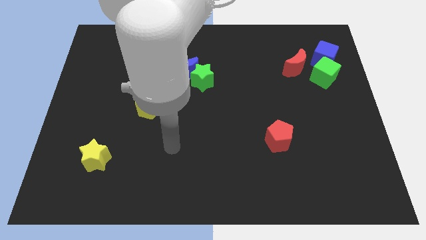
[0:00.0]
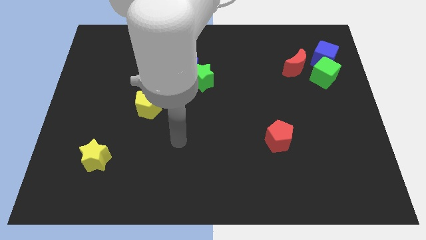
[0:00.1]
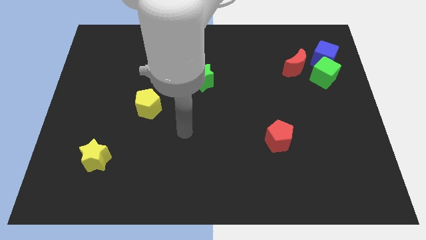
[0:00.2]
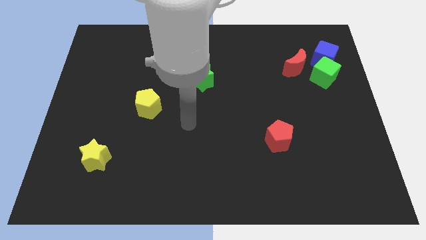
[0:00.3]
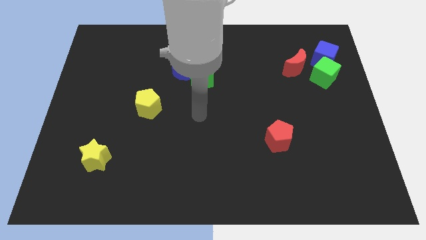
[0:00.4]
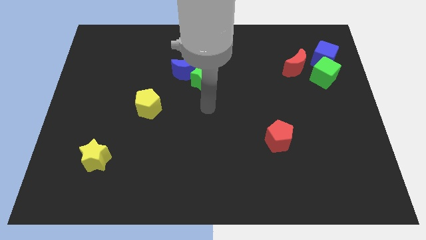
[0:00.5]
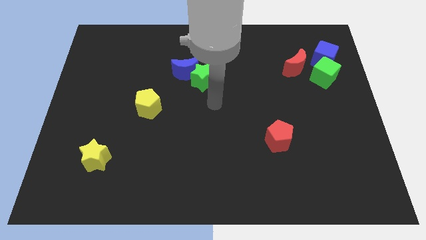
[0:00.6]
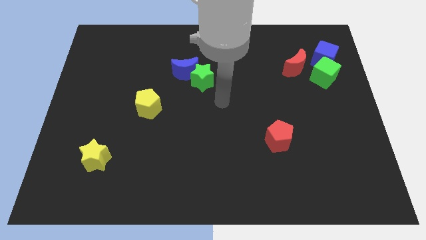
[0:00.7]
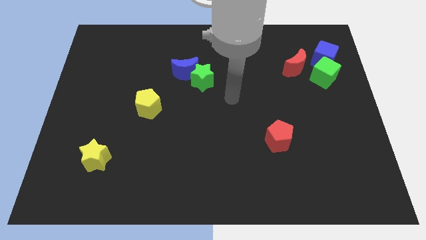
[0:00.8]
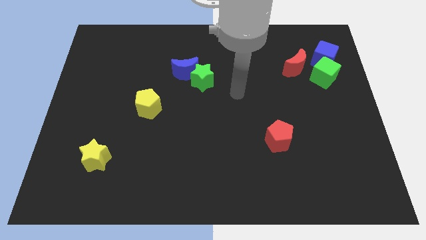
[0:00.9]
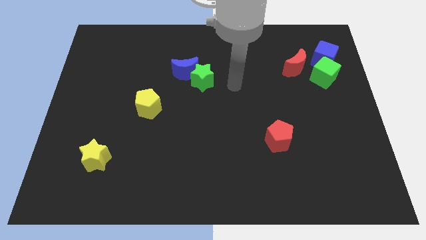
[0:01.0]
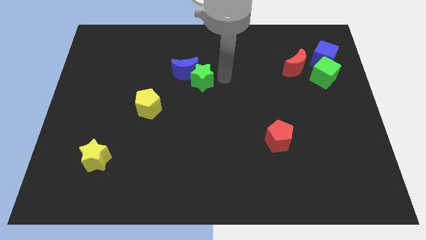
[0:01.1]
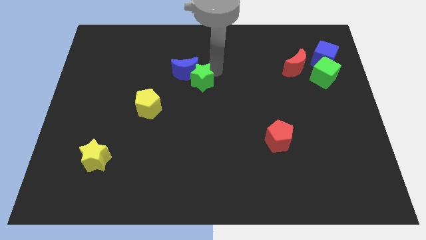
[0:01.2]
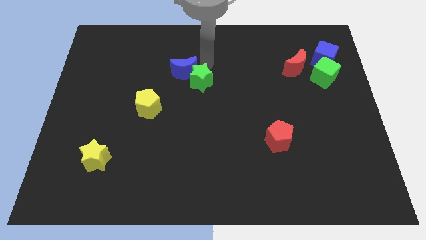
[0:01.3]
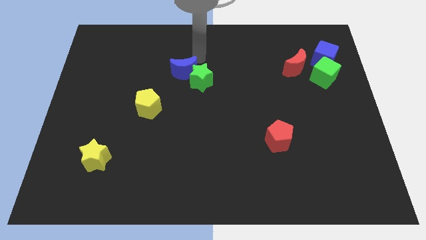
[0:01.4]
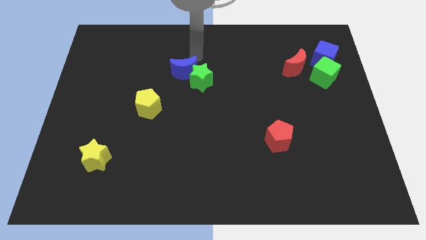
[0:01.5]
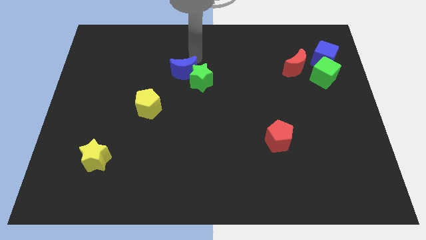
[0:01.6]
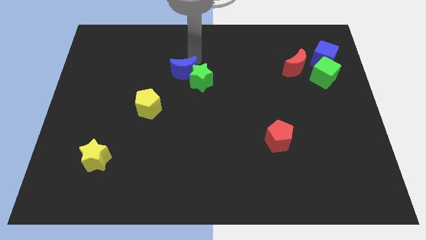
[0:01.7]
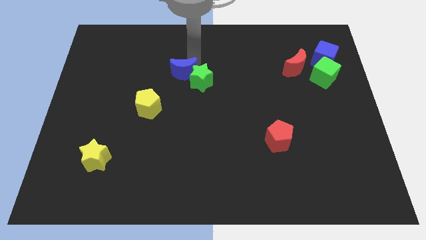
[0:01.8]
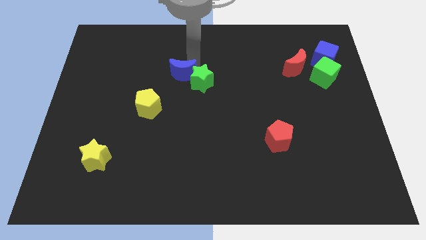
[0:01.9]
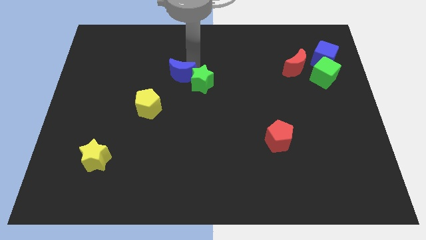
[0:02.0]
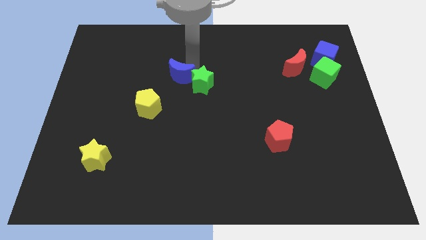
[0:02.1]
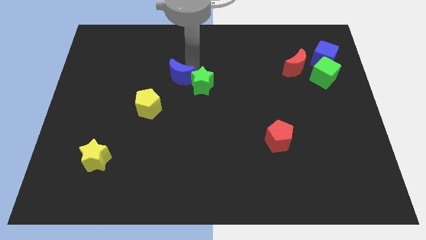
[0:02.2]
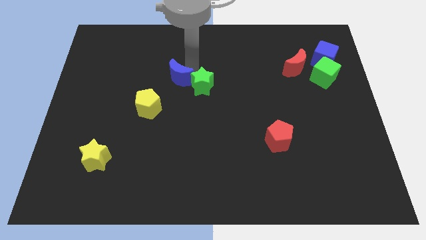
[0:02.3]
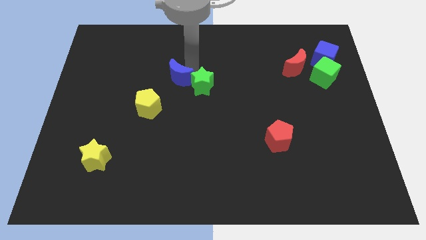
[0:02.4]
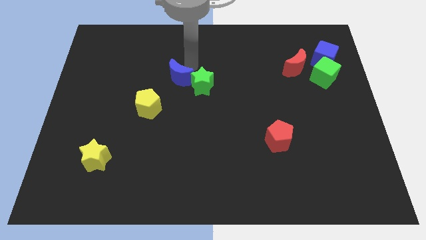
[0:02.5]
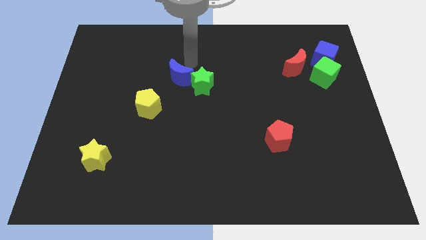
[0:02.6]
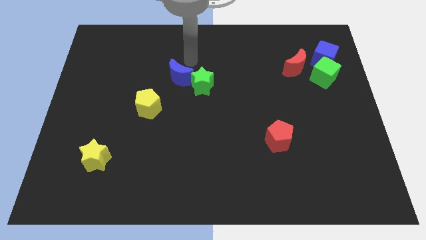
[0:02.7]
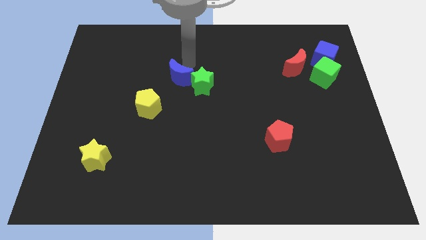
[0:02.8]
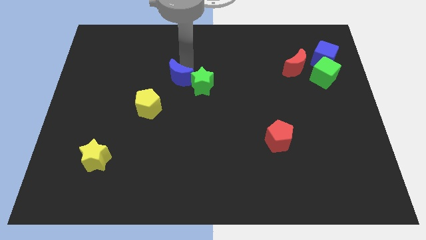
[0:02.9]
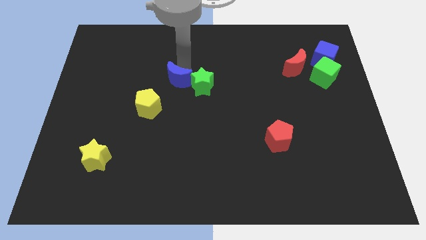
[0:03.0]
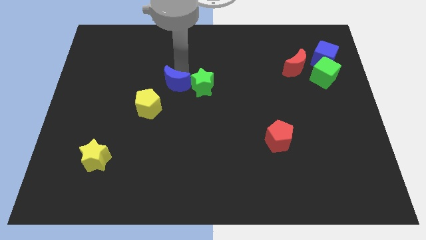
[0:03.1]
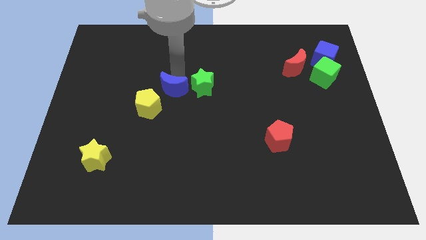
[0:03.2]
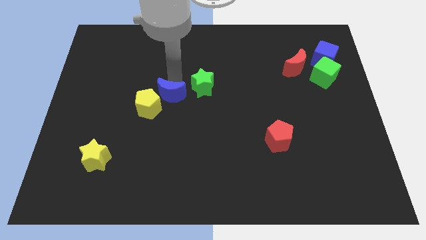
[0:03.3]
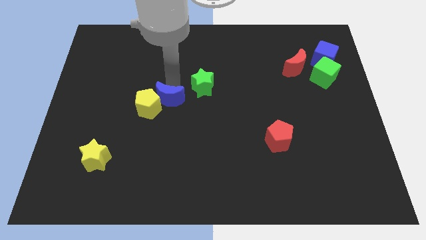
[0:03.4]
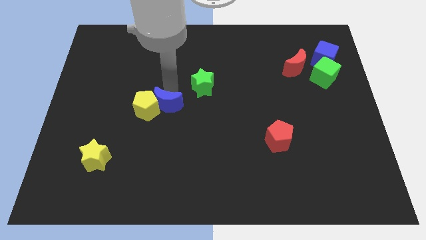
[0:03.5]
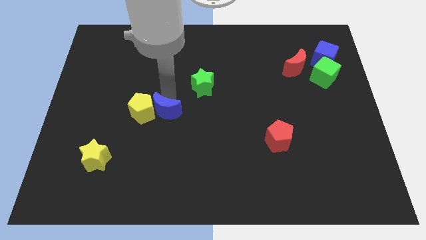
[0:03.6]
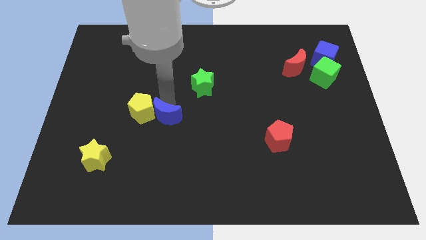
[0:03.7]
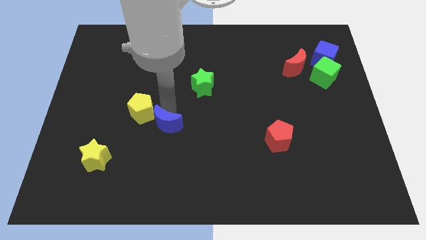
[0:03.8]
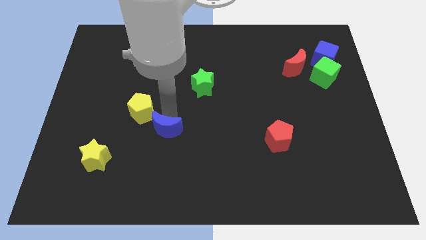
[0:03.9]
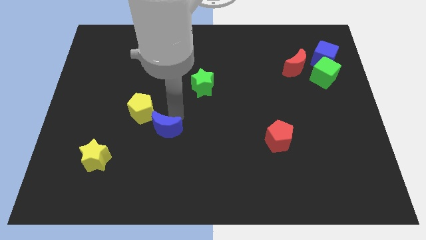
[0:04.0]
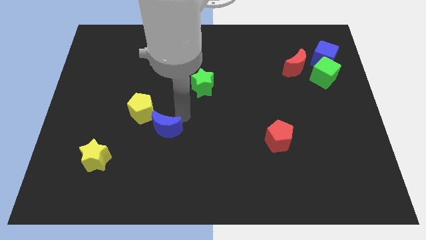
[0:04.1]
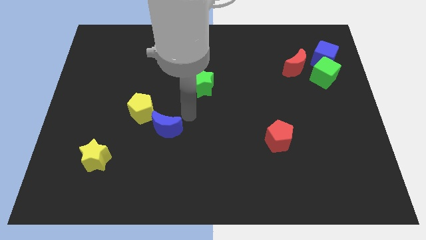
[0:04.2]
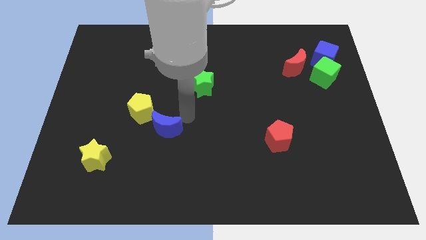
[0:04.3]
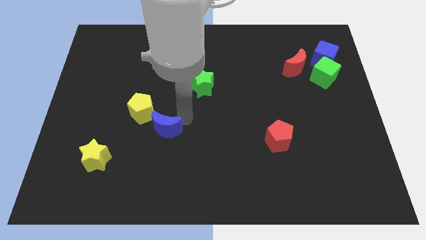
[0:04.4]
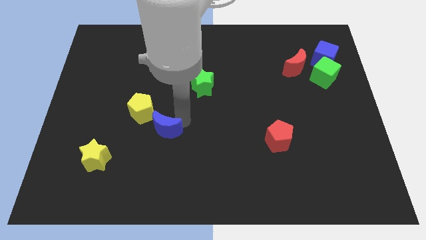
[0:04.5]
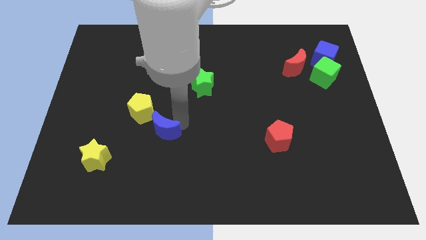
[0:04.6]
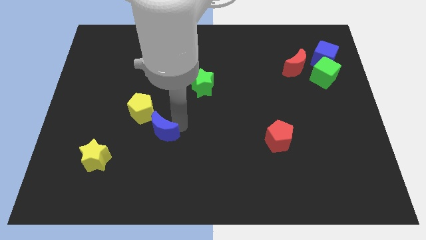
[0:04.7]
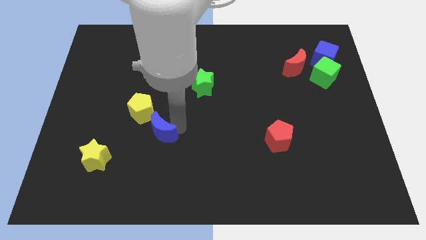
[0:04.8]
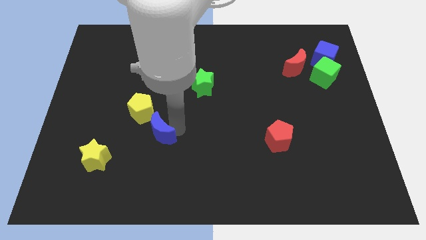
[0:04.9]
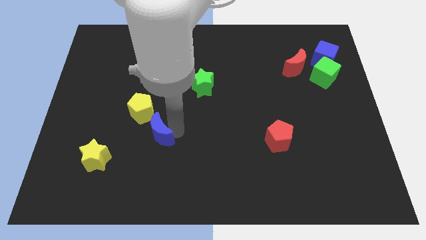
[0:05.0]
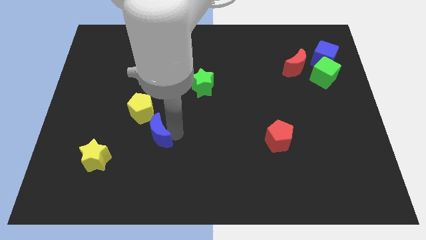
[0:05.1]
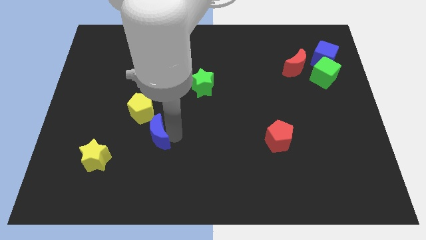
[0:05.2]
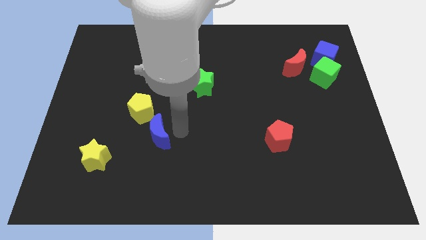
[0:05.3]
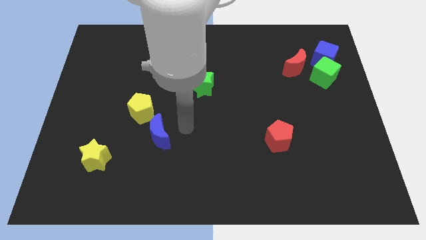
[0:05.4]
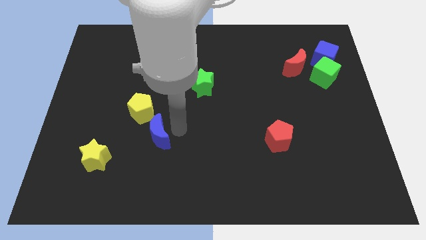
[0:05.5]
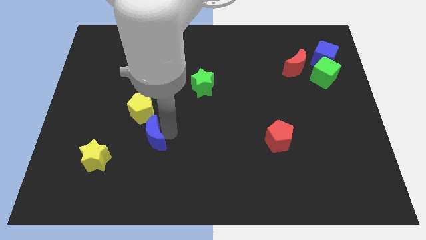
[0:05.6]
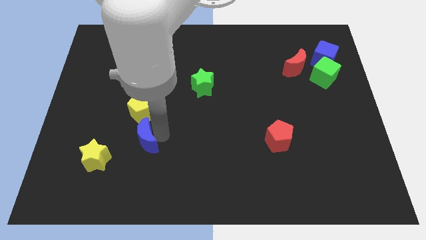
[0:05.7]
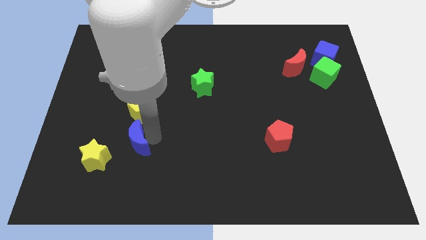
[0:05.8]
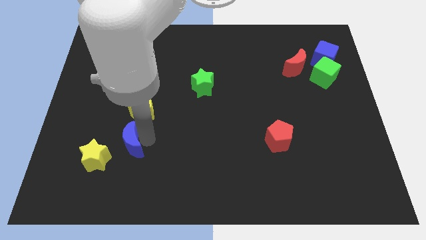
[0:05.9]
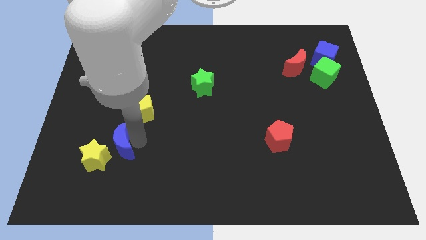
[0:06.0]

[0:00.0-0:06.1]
slide the blue moon to the yellow star

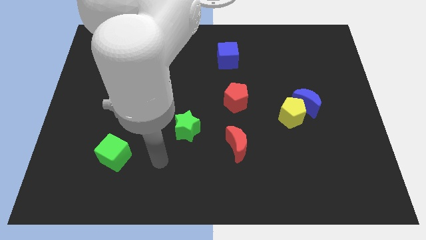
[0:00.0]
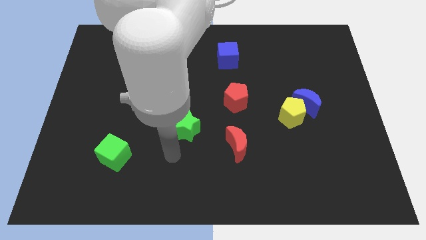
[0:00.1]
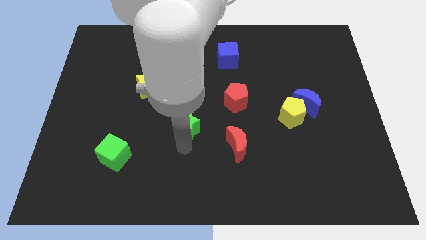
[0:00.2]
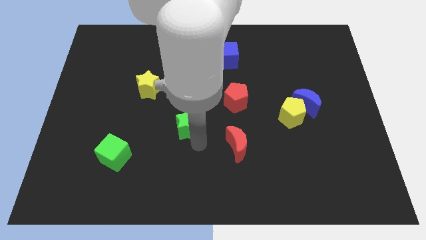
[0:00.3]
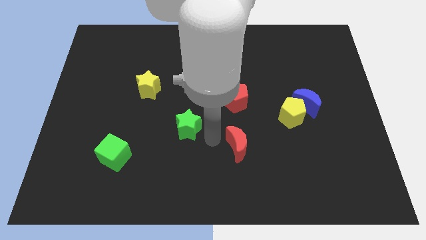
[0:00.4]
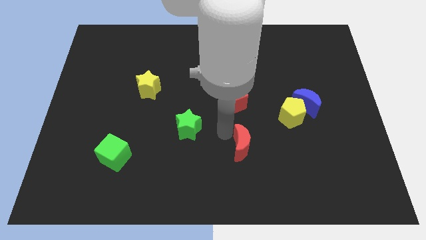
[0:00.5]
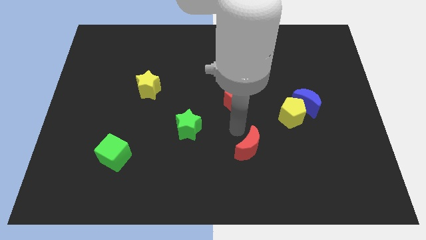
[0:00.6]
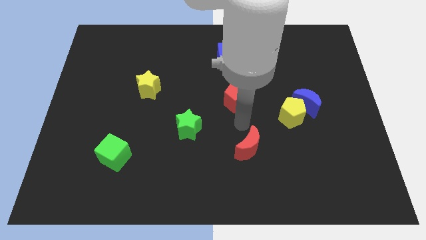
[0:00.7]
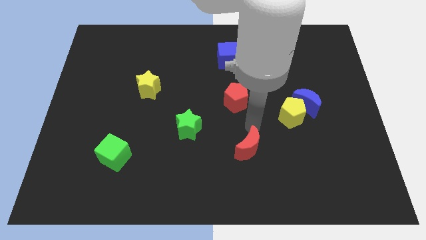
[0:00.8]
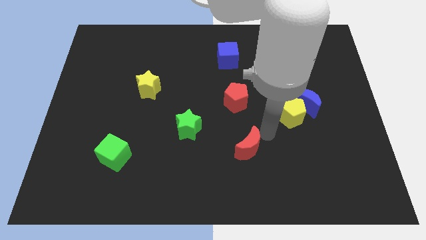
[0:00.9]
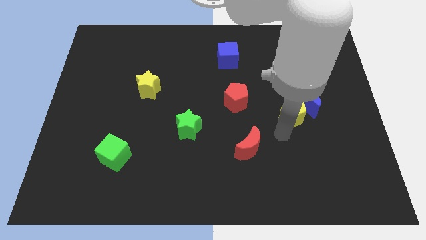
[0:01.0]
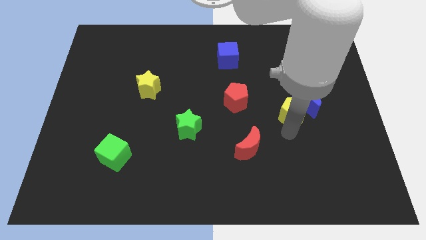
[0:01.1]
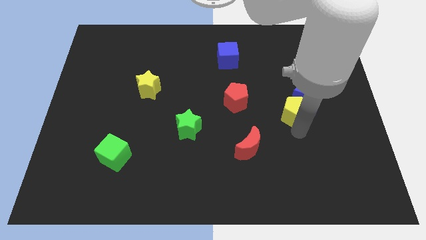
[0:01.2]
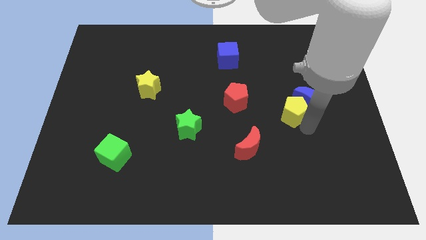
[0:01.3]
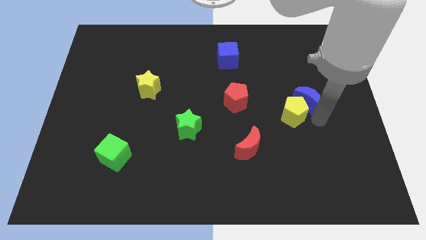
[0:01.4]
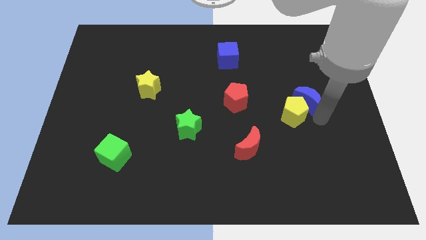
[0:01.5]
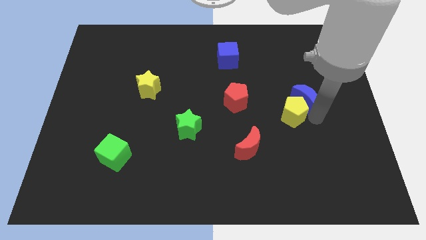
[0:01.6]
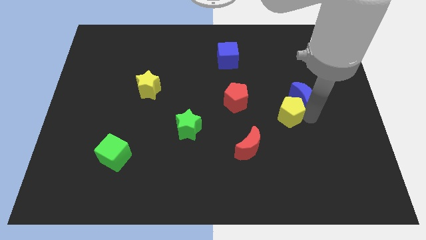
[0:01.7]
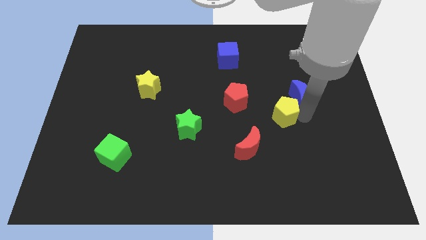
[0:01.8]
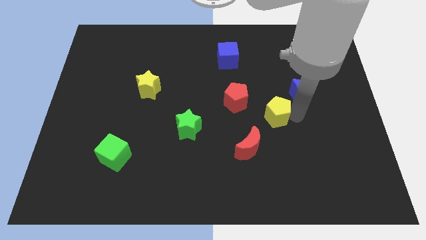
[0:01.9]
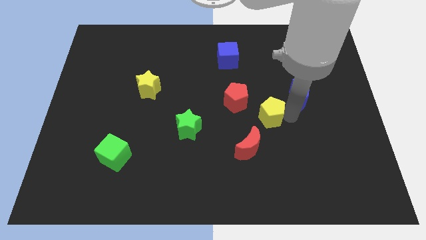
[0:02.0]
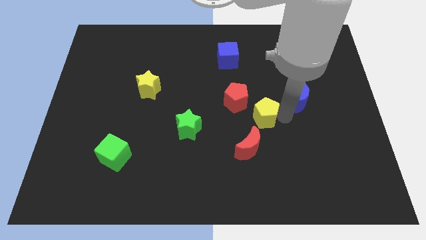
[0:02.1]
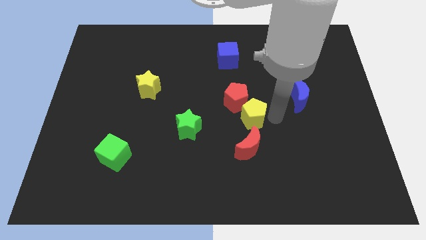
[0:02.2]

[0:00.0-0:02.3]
move the yellow pentagon to the red pentagon
